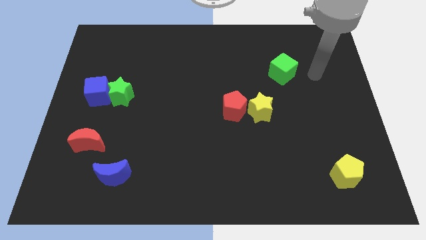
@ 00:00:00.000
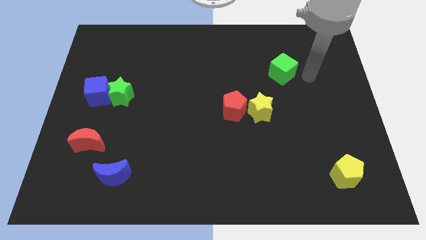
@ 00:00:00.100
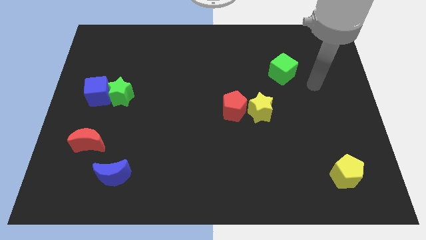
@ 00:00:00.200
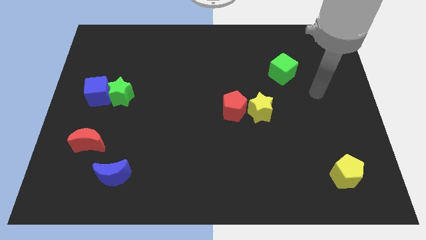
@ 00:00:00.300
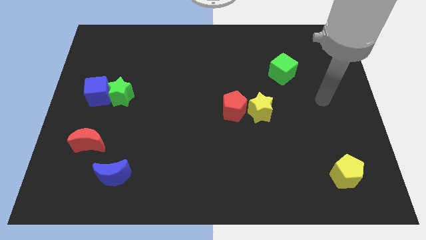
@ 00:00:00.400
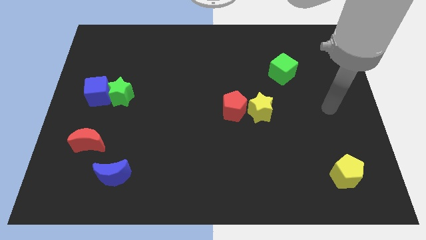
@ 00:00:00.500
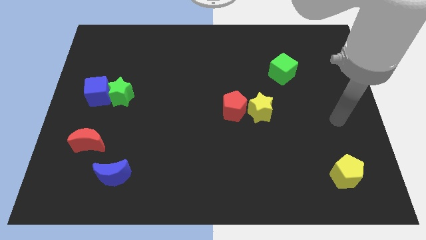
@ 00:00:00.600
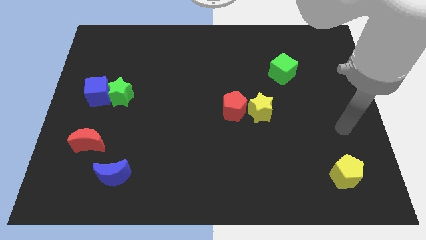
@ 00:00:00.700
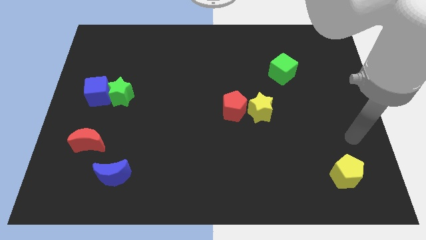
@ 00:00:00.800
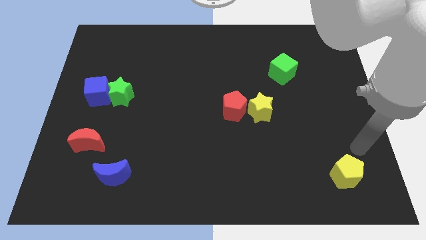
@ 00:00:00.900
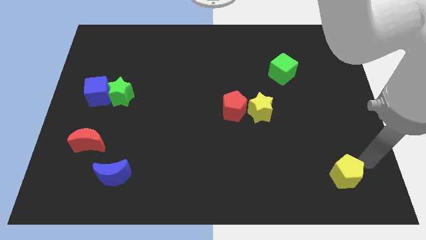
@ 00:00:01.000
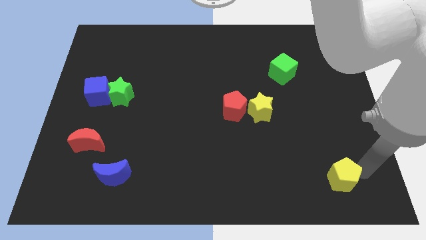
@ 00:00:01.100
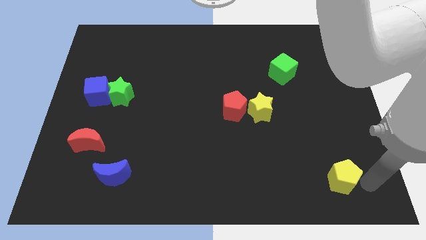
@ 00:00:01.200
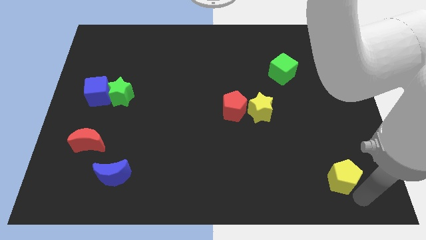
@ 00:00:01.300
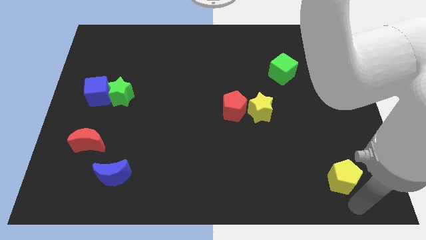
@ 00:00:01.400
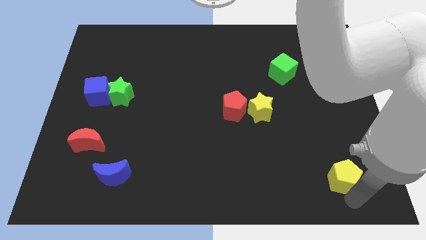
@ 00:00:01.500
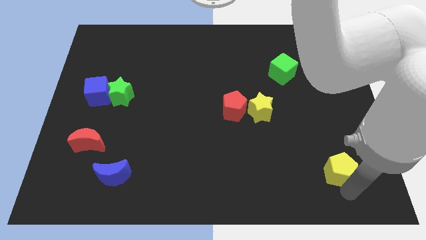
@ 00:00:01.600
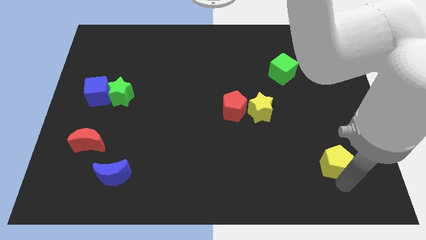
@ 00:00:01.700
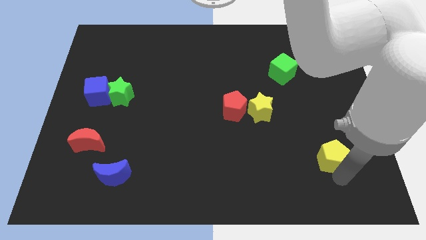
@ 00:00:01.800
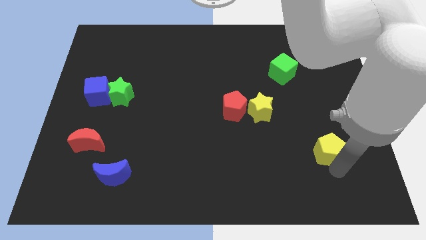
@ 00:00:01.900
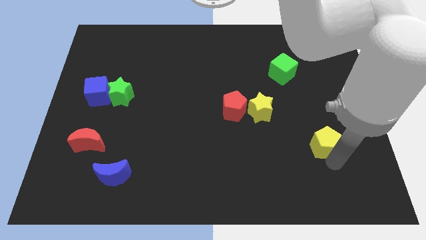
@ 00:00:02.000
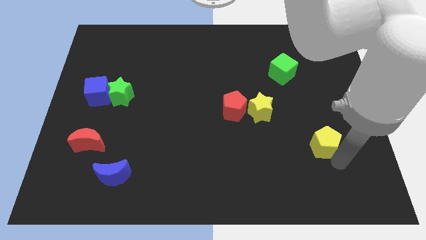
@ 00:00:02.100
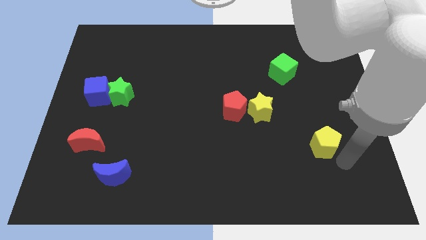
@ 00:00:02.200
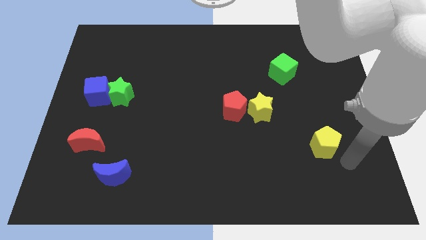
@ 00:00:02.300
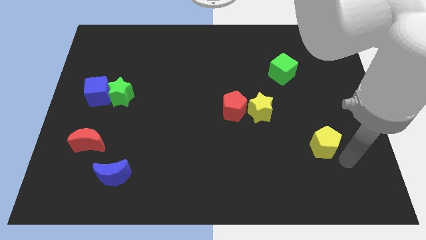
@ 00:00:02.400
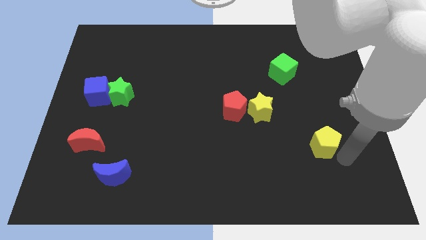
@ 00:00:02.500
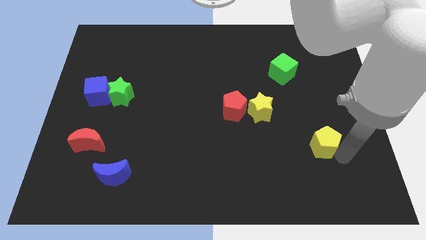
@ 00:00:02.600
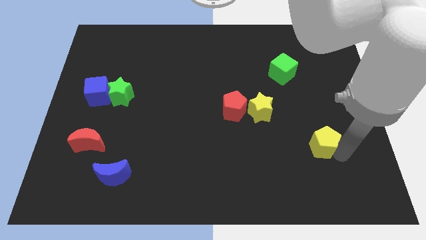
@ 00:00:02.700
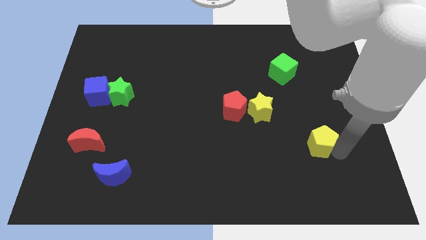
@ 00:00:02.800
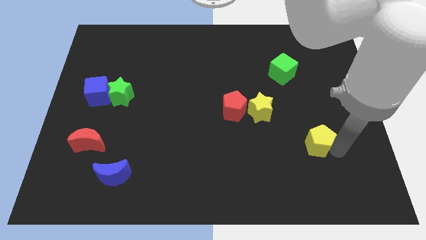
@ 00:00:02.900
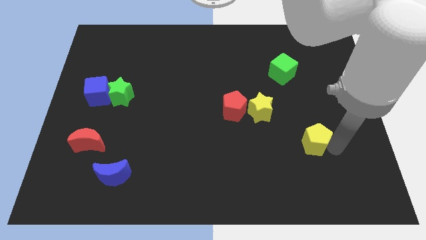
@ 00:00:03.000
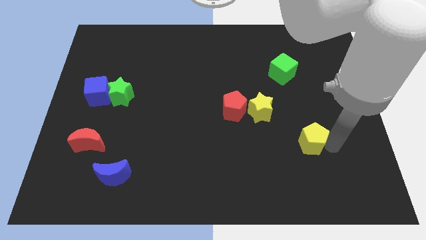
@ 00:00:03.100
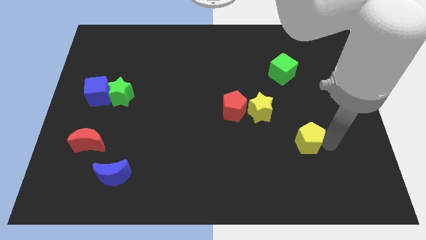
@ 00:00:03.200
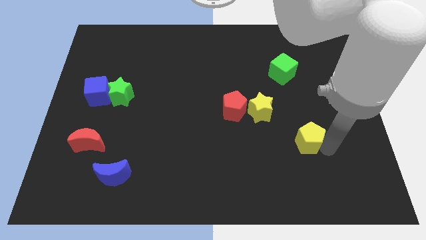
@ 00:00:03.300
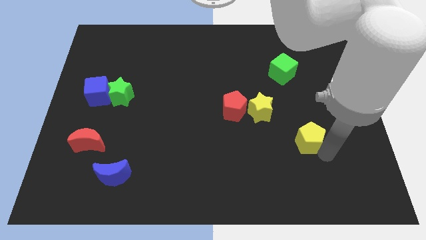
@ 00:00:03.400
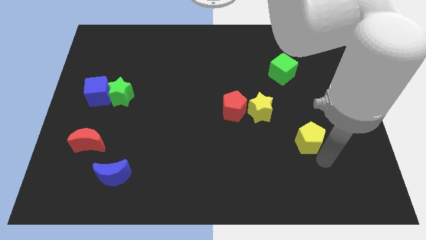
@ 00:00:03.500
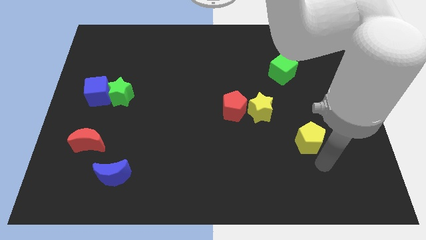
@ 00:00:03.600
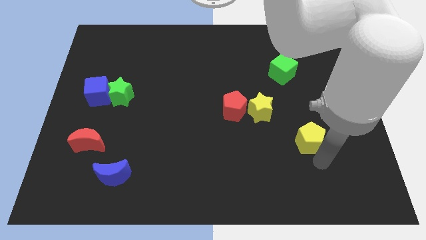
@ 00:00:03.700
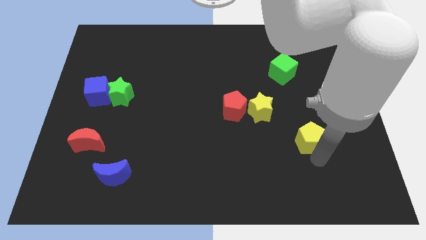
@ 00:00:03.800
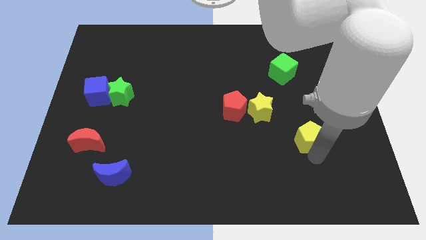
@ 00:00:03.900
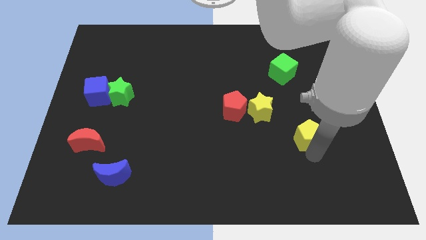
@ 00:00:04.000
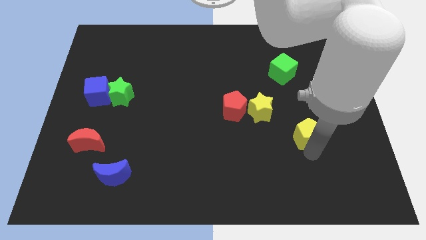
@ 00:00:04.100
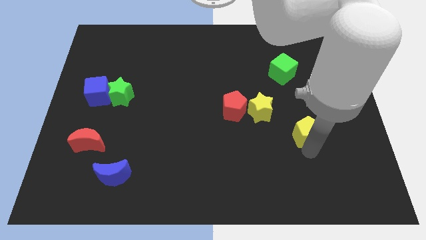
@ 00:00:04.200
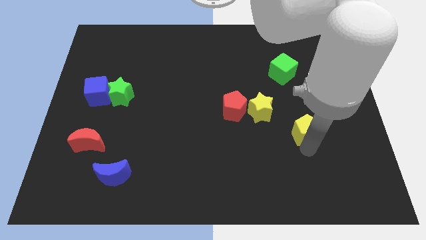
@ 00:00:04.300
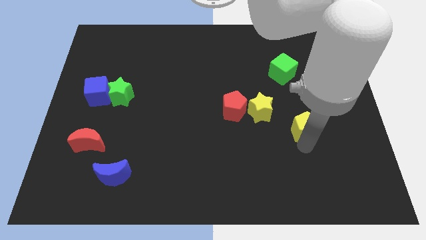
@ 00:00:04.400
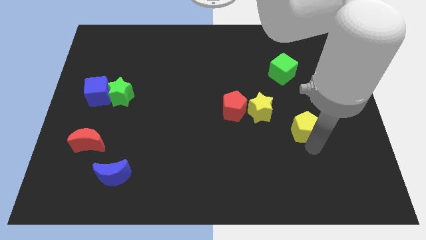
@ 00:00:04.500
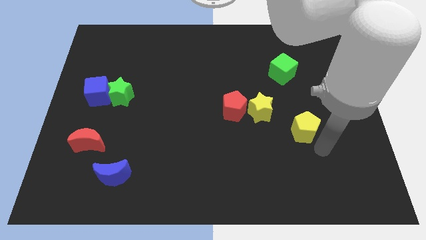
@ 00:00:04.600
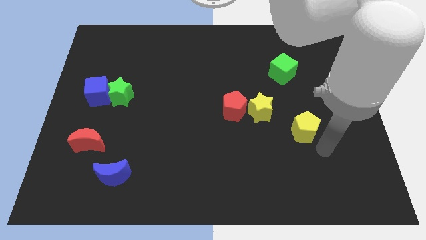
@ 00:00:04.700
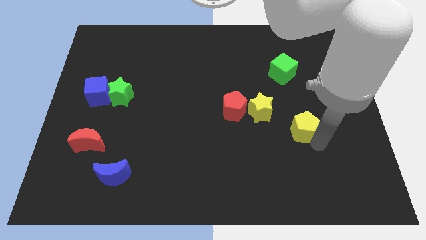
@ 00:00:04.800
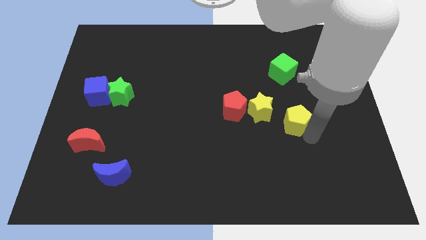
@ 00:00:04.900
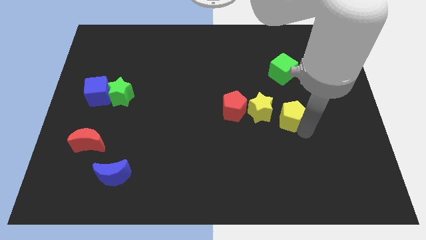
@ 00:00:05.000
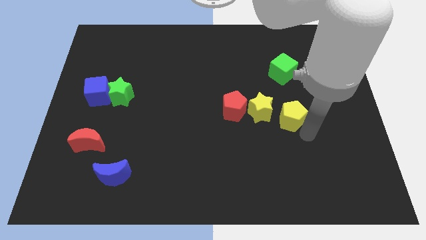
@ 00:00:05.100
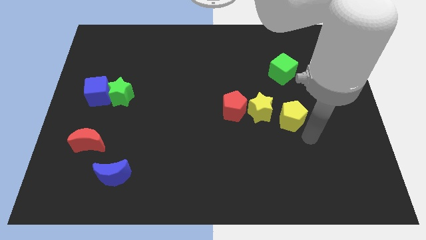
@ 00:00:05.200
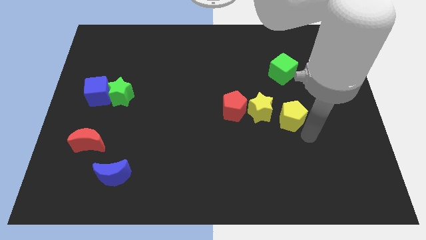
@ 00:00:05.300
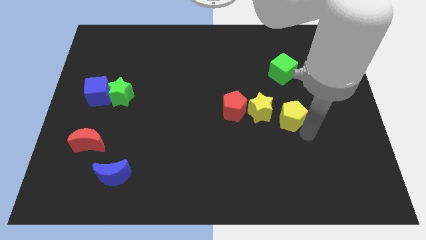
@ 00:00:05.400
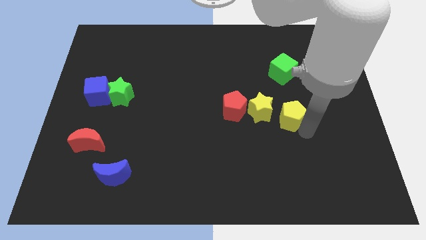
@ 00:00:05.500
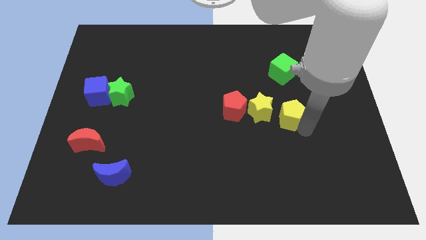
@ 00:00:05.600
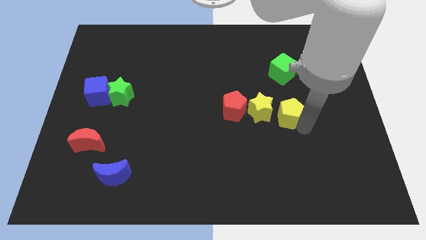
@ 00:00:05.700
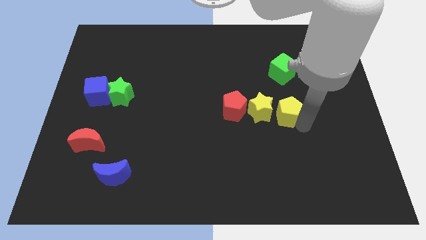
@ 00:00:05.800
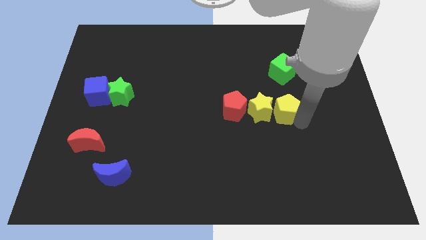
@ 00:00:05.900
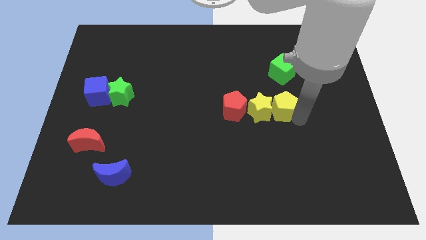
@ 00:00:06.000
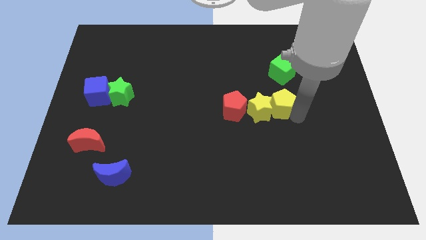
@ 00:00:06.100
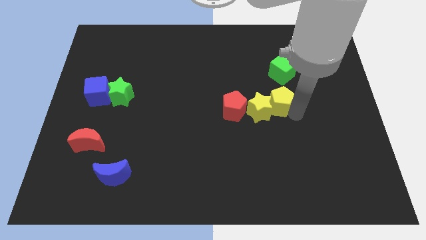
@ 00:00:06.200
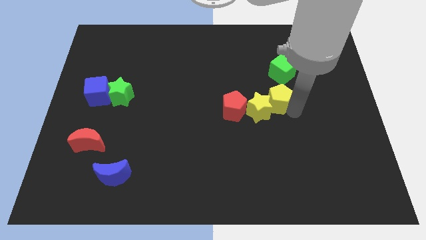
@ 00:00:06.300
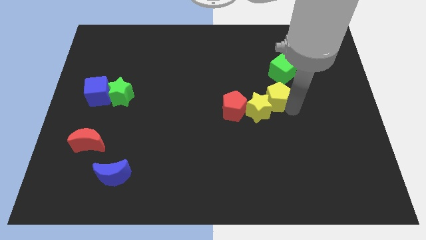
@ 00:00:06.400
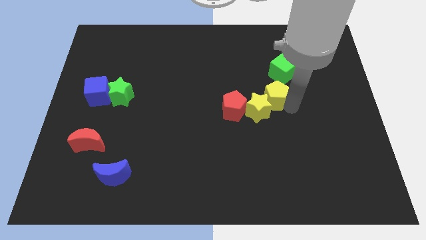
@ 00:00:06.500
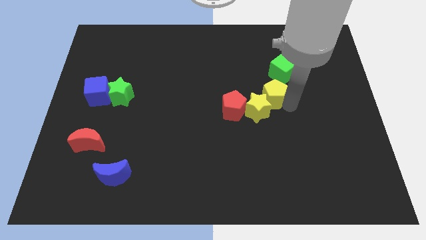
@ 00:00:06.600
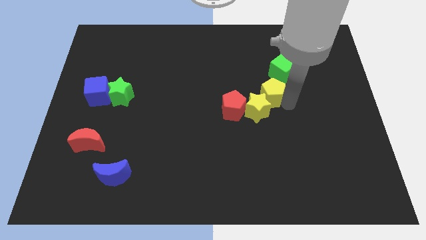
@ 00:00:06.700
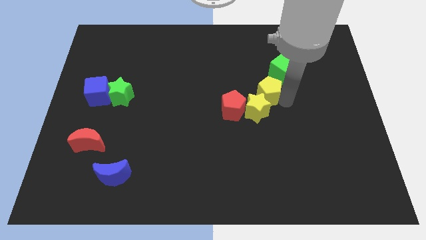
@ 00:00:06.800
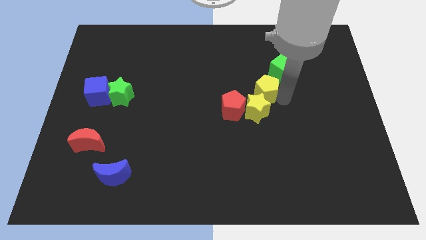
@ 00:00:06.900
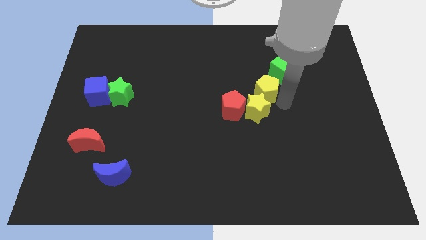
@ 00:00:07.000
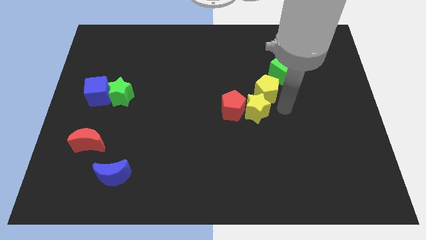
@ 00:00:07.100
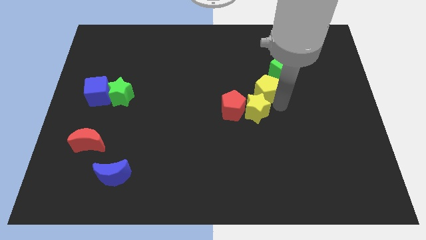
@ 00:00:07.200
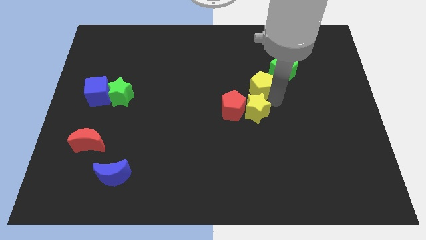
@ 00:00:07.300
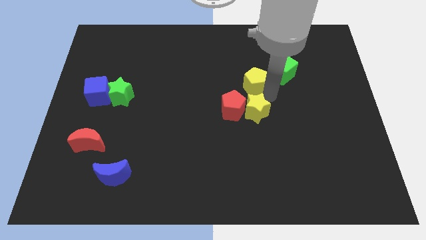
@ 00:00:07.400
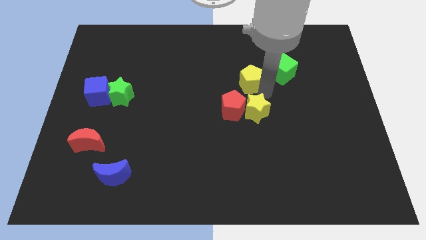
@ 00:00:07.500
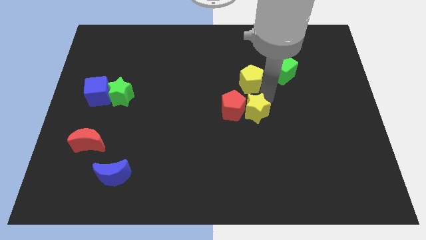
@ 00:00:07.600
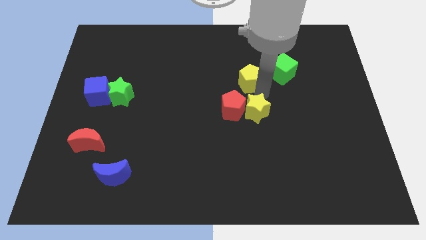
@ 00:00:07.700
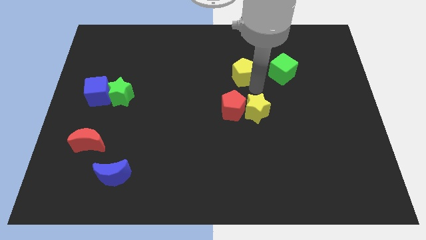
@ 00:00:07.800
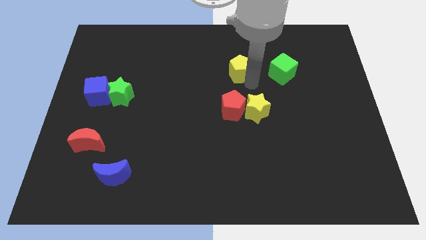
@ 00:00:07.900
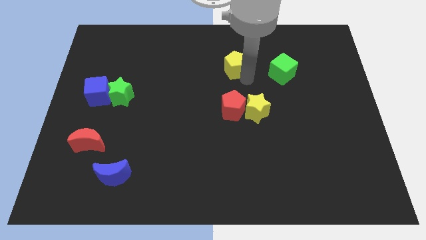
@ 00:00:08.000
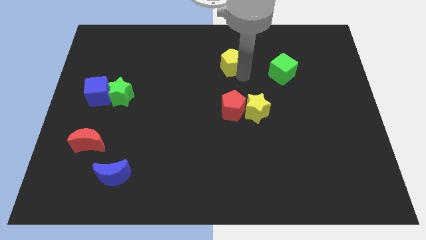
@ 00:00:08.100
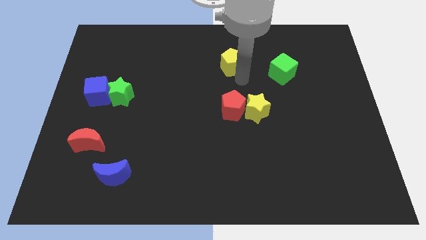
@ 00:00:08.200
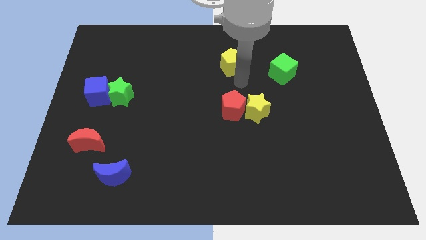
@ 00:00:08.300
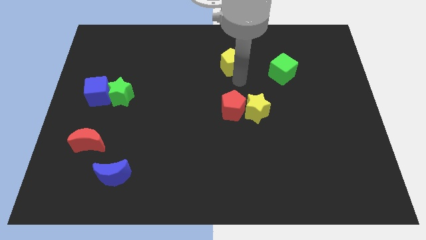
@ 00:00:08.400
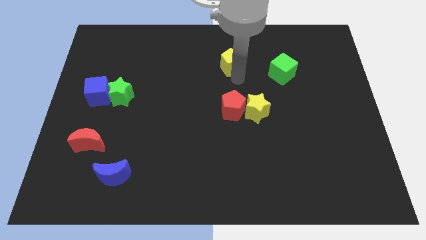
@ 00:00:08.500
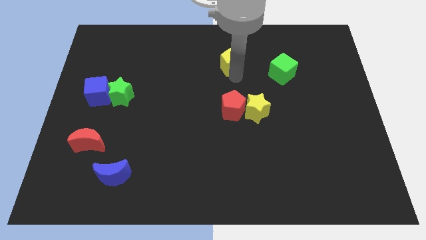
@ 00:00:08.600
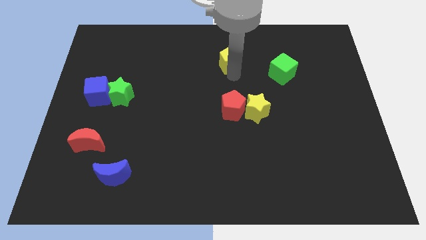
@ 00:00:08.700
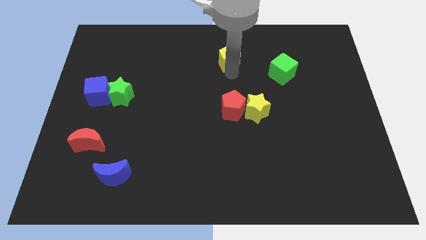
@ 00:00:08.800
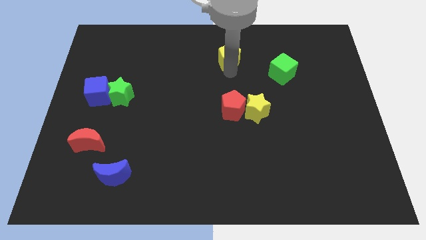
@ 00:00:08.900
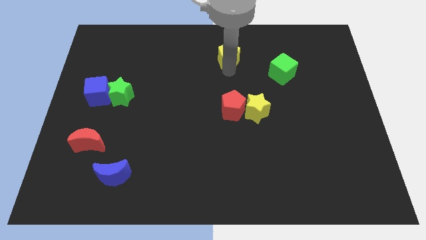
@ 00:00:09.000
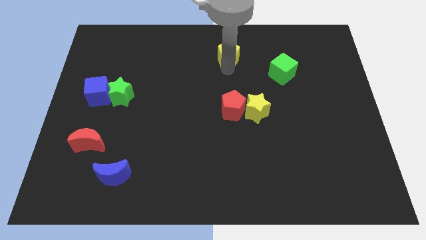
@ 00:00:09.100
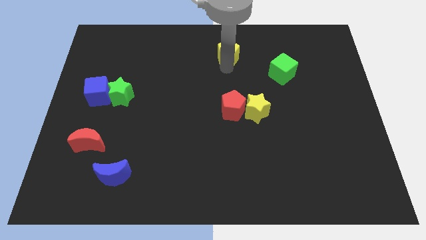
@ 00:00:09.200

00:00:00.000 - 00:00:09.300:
move the yellow pentagon to the towards your base
